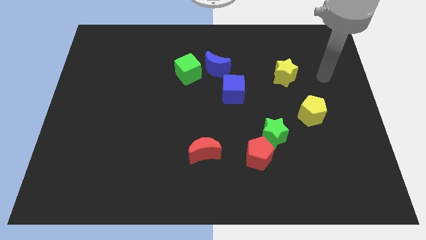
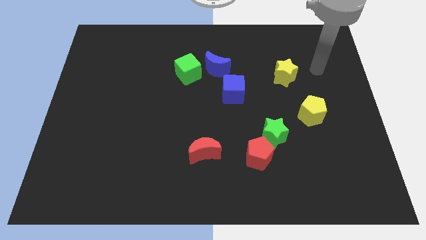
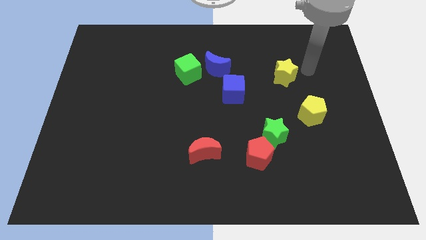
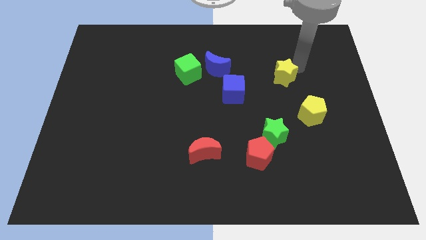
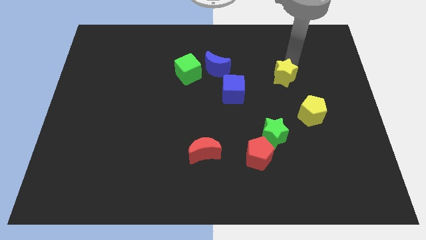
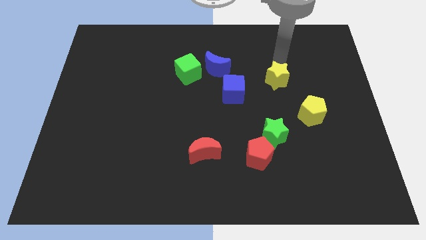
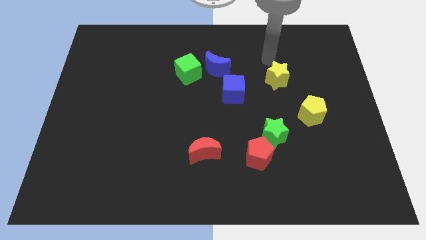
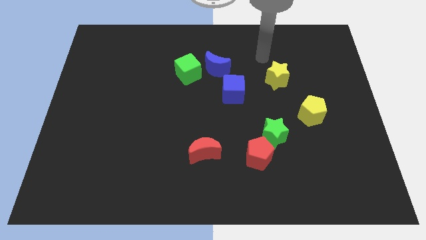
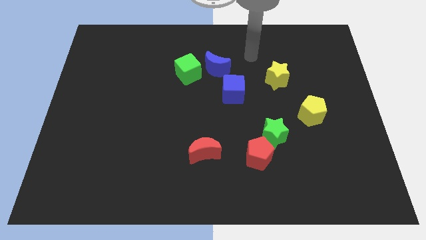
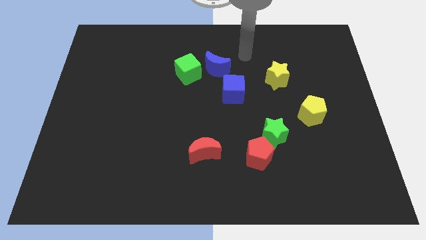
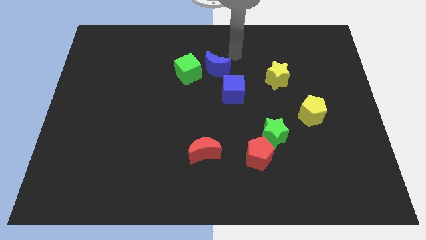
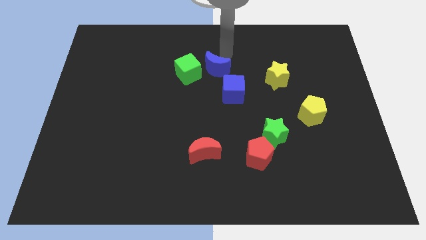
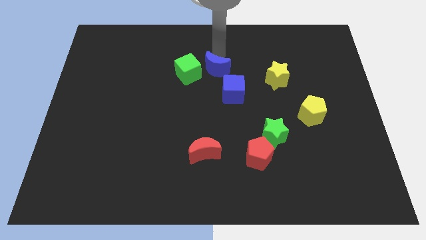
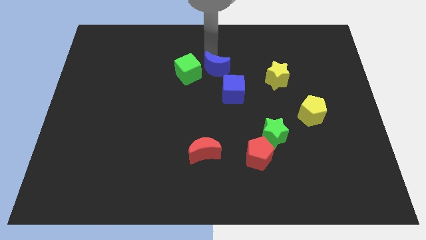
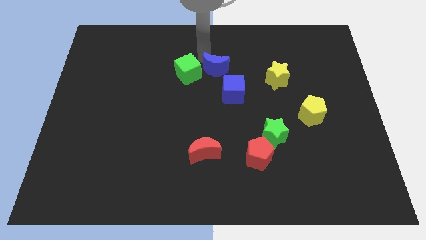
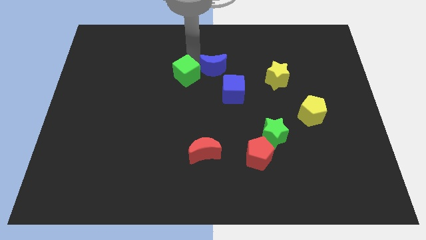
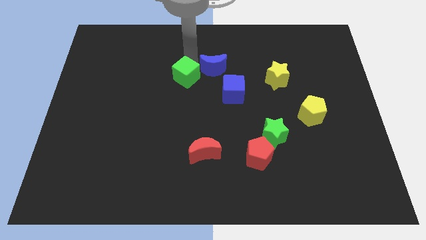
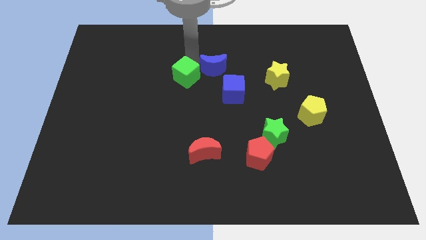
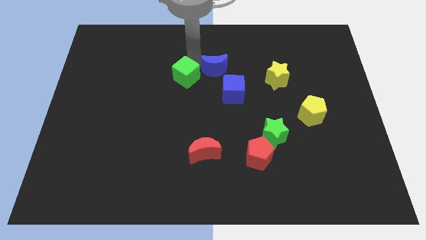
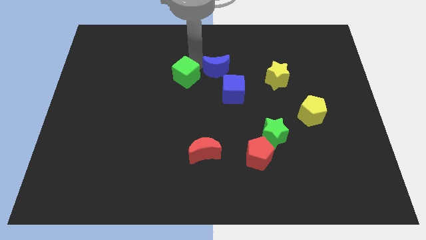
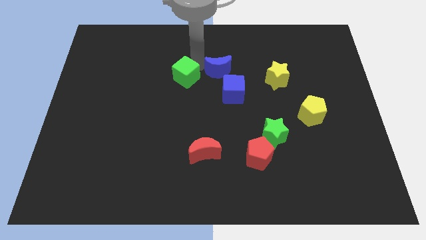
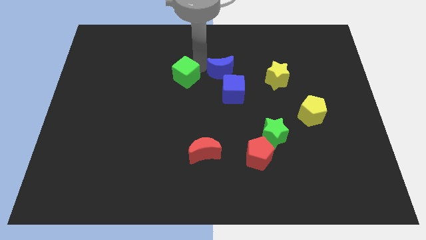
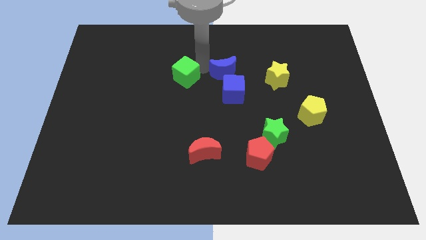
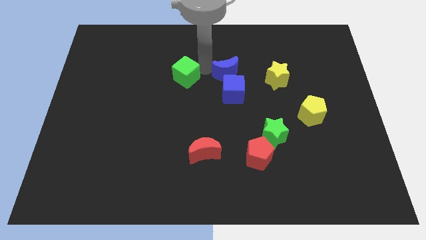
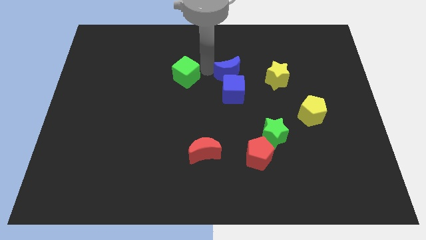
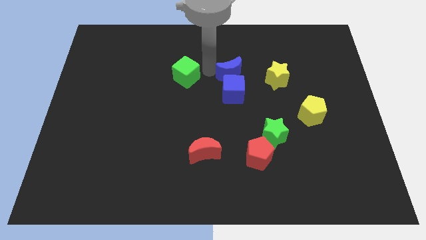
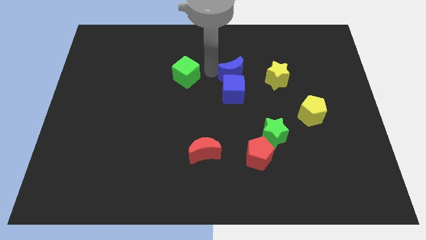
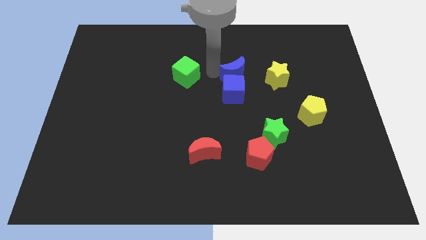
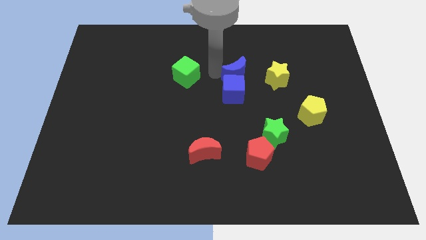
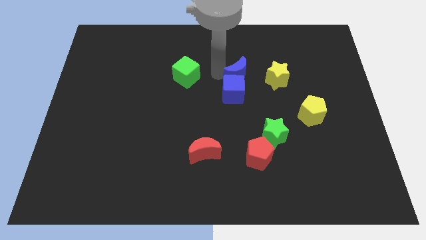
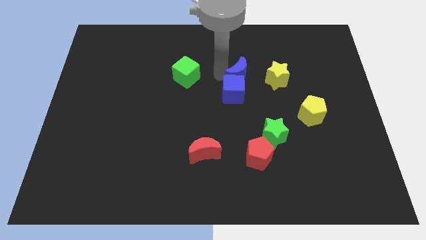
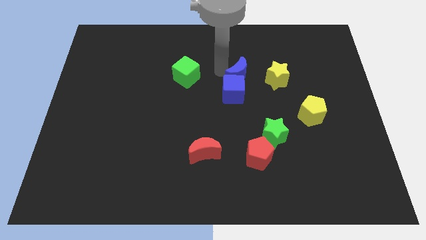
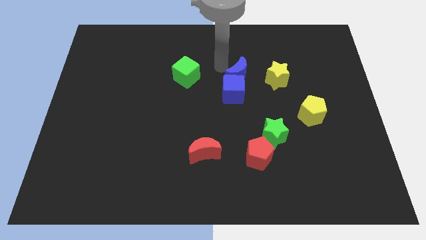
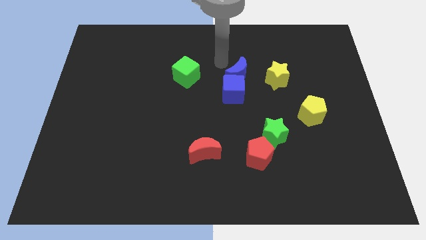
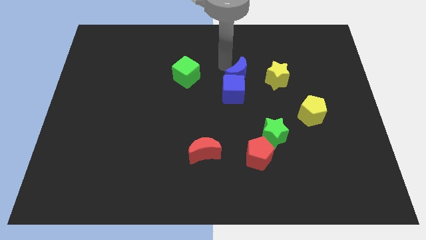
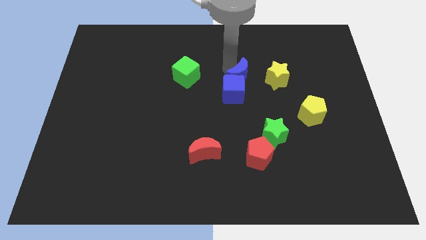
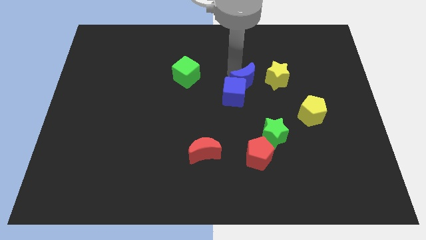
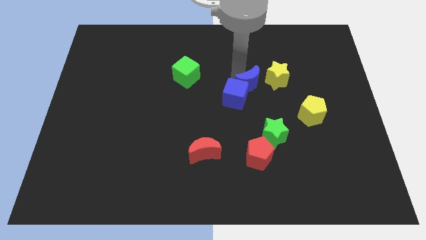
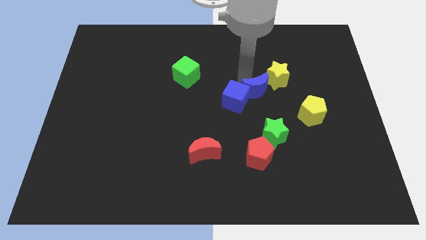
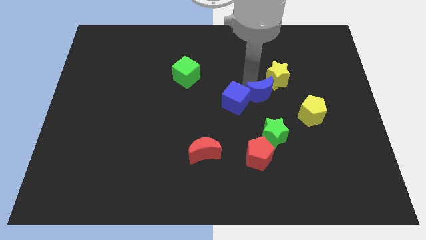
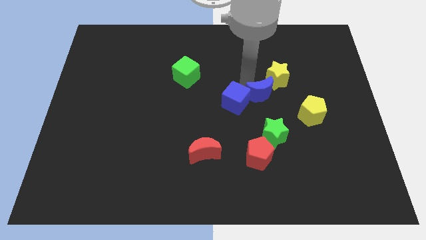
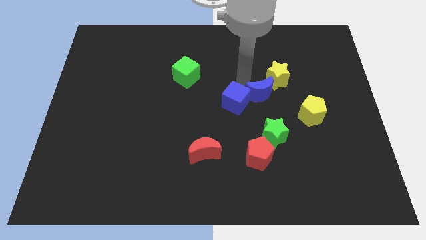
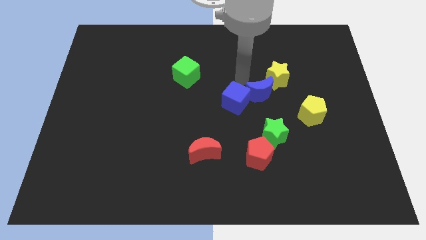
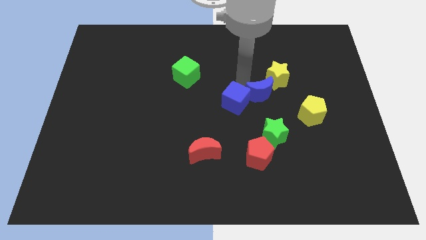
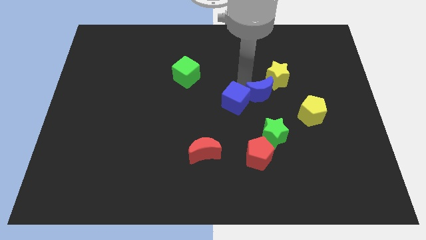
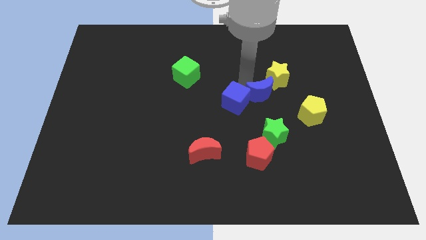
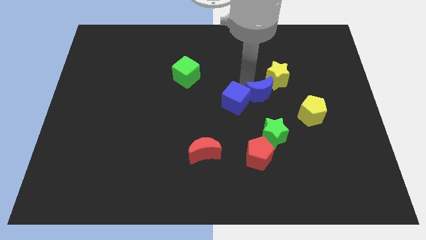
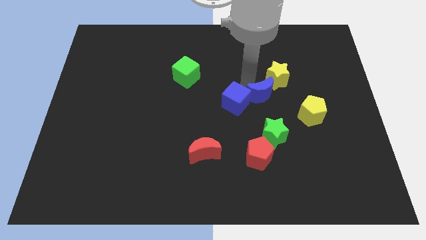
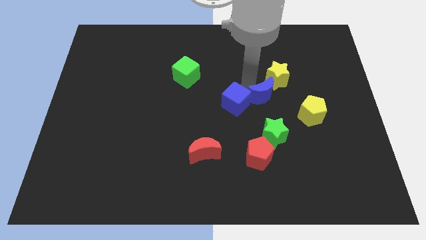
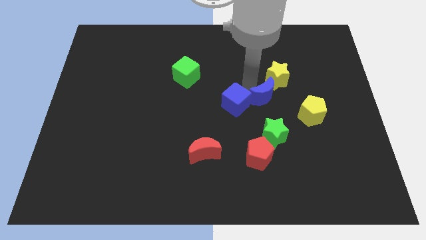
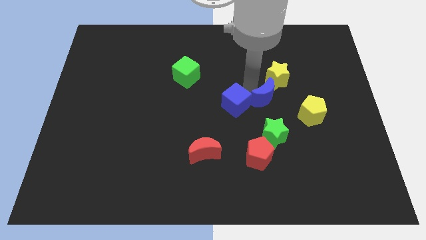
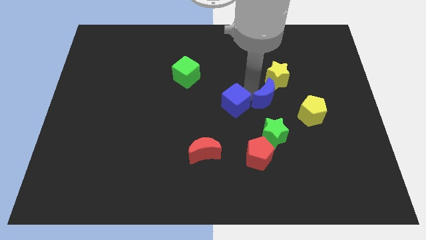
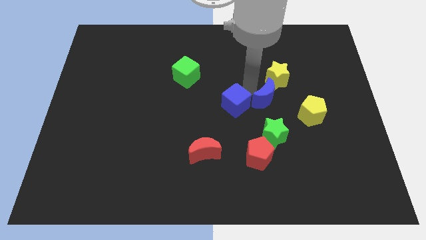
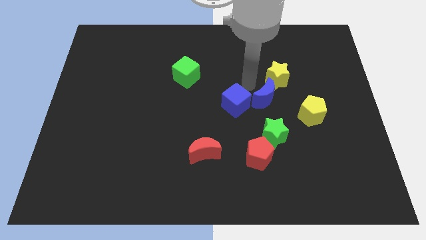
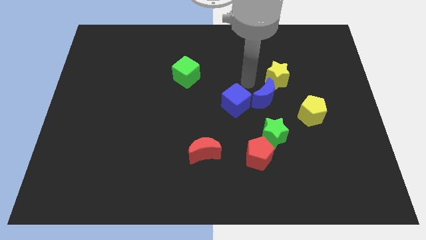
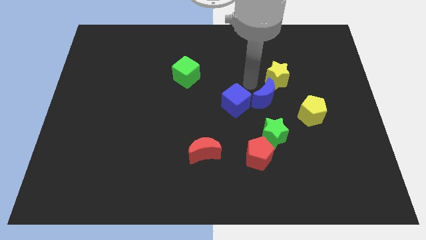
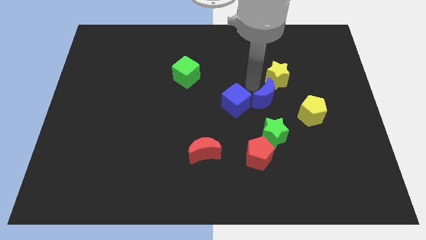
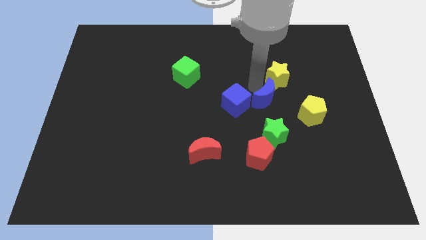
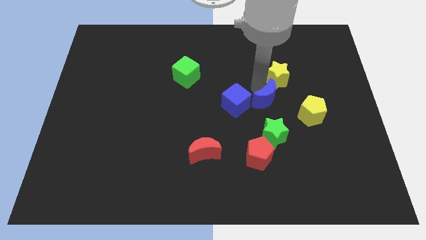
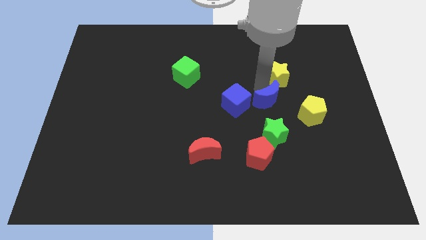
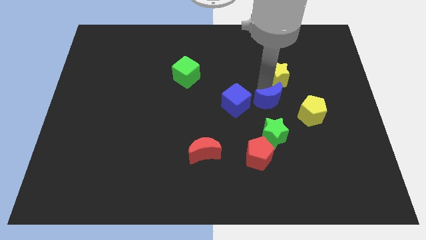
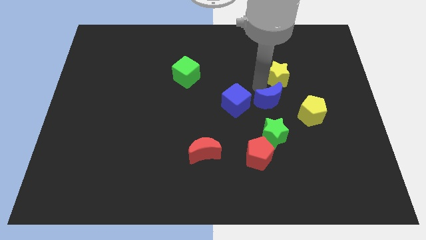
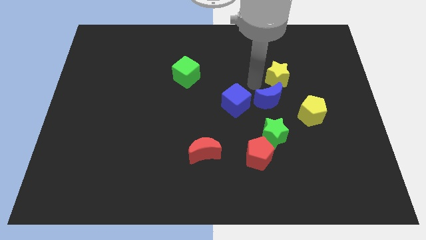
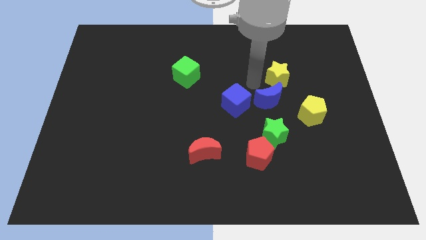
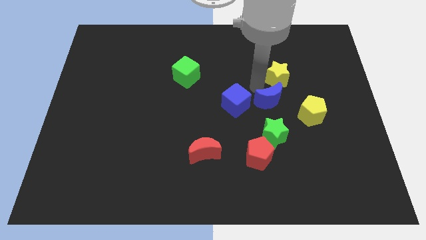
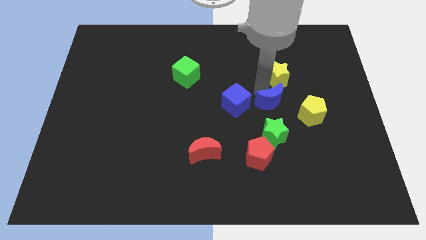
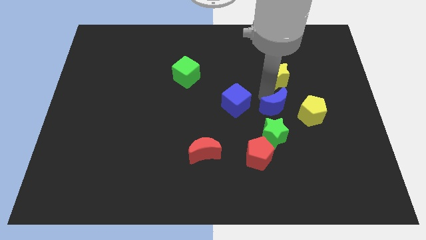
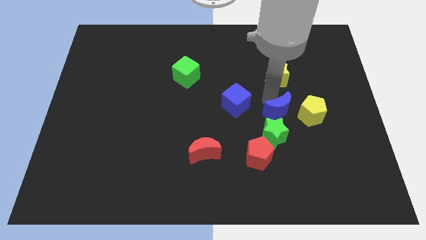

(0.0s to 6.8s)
slide the blue moon down and to the right diagonally

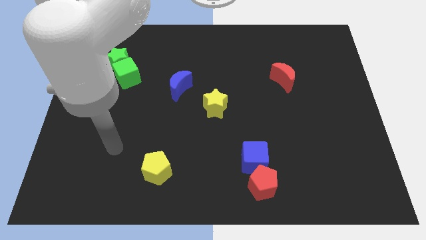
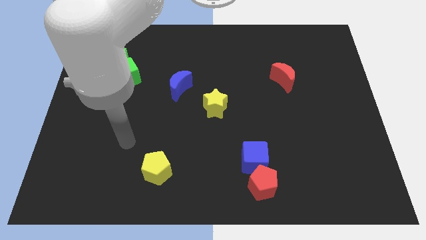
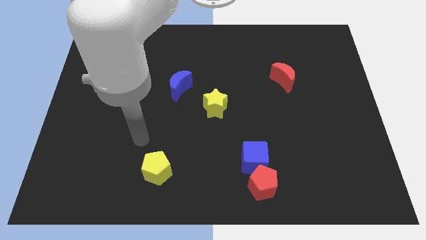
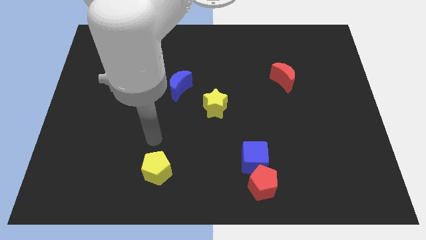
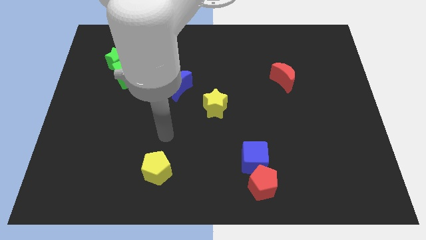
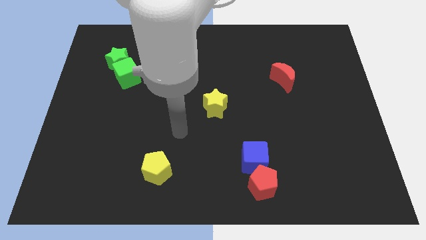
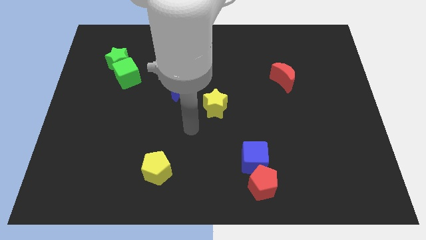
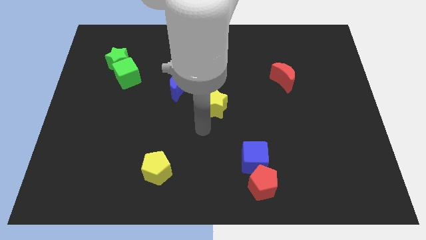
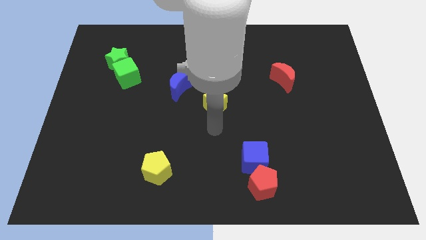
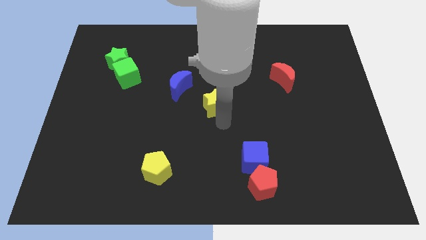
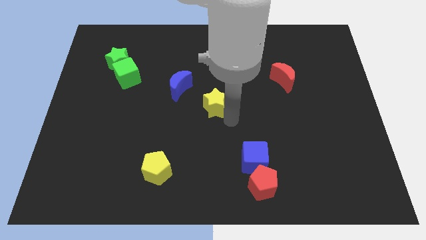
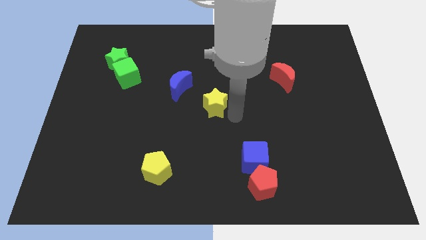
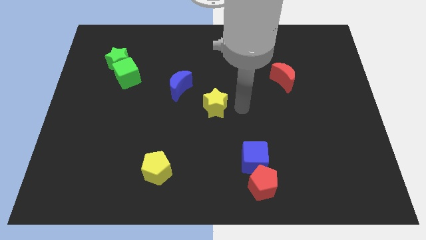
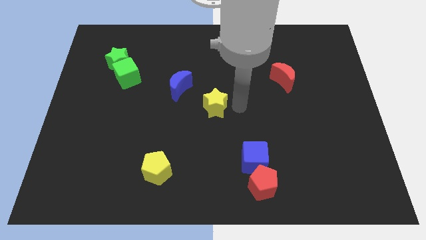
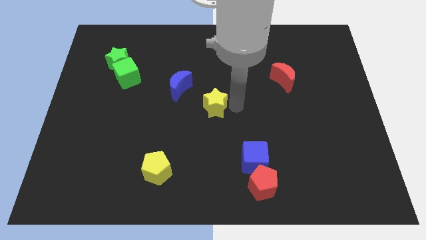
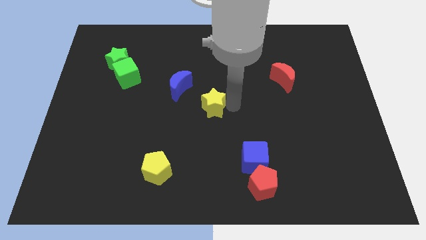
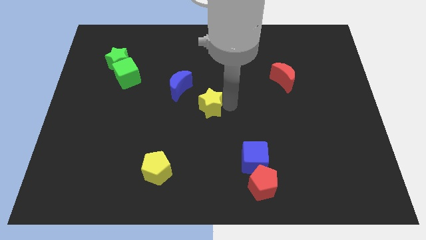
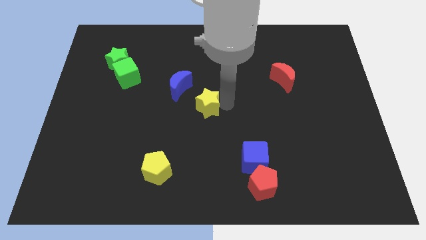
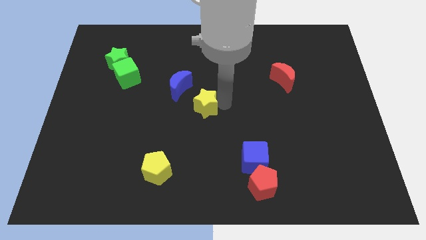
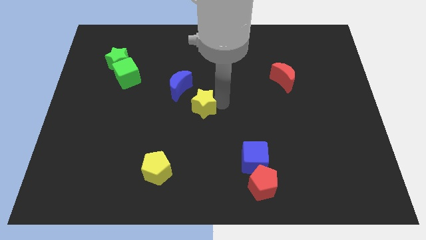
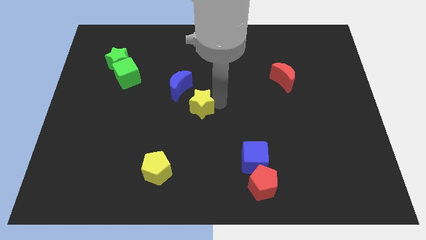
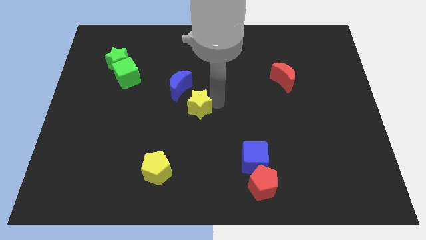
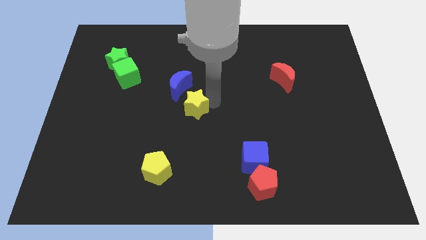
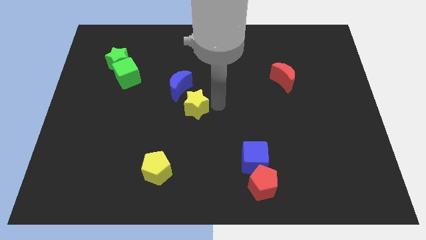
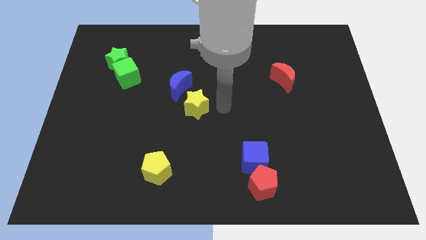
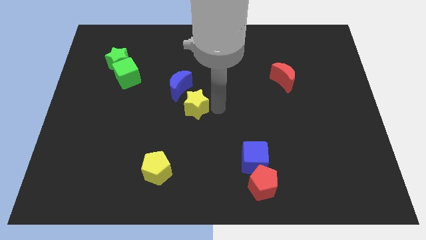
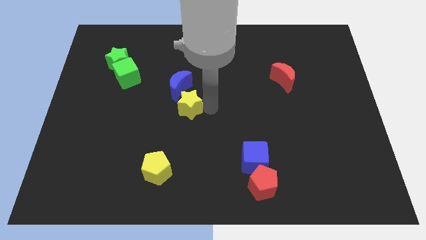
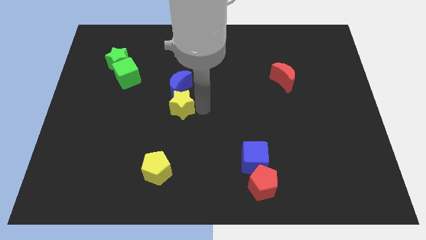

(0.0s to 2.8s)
slightly slide the yellow star to the left
